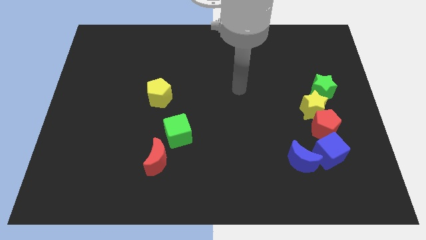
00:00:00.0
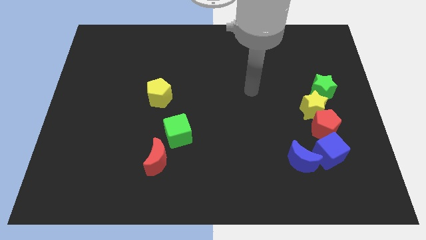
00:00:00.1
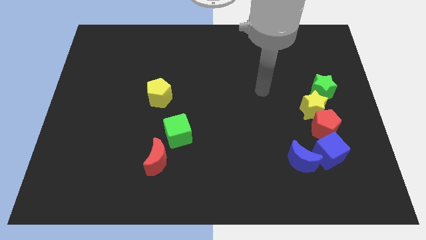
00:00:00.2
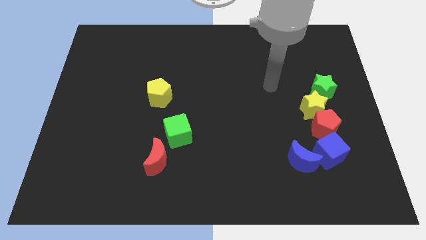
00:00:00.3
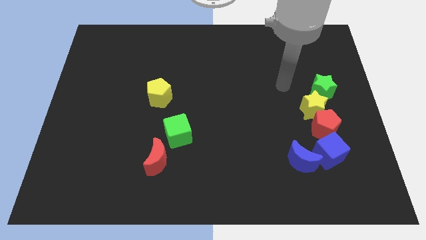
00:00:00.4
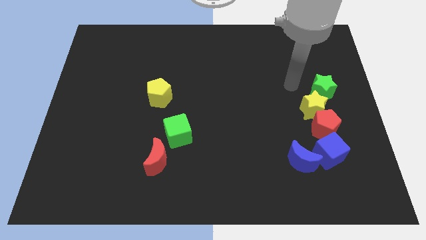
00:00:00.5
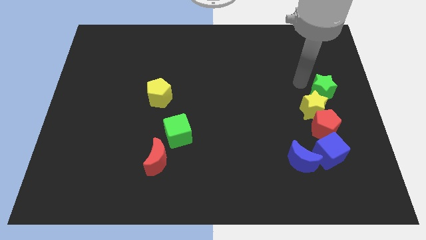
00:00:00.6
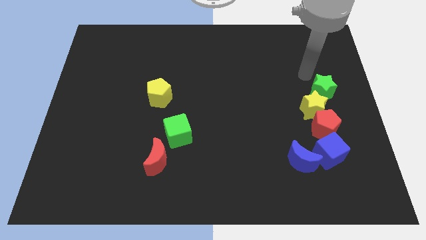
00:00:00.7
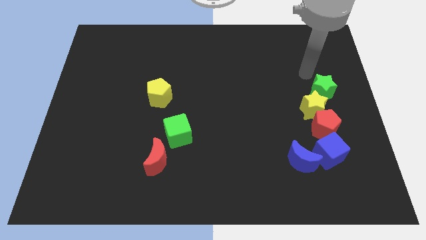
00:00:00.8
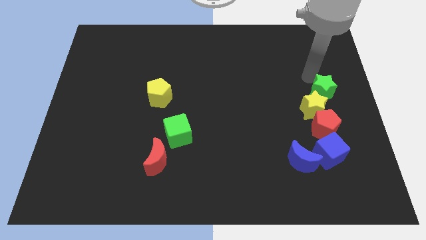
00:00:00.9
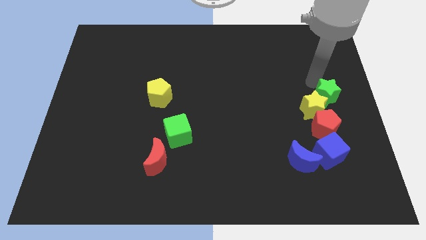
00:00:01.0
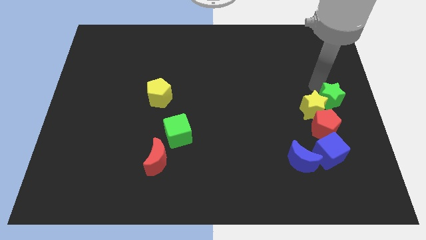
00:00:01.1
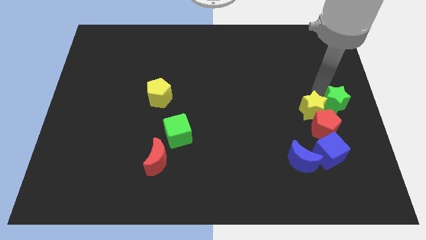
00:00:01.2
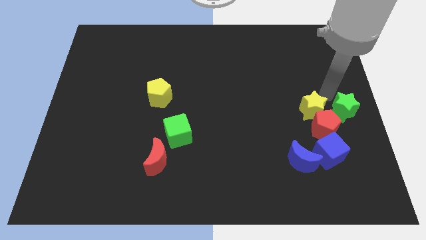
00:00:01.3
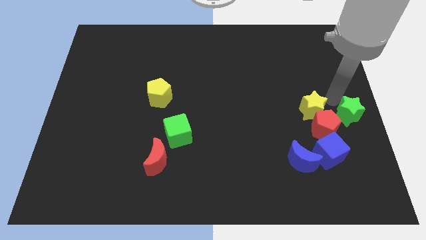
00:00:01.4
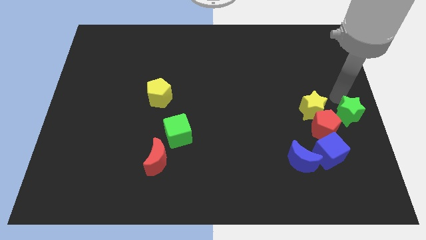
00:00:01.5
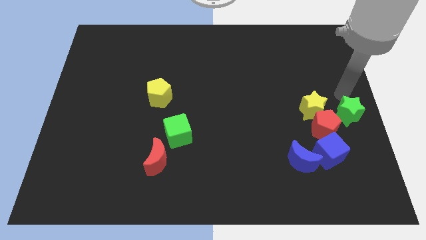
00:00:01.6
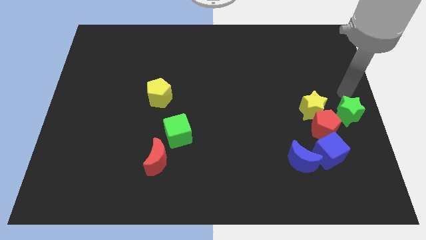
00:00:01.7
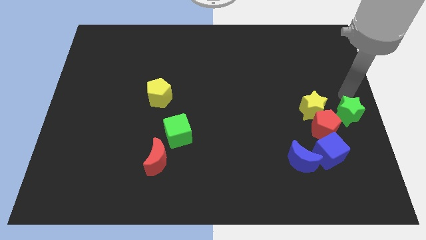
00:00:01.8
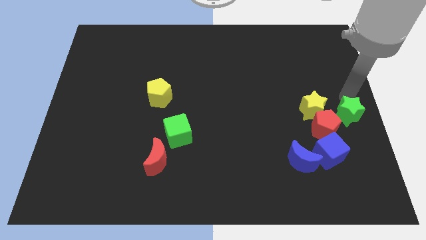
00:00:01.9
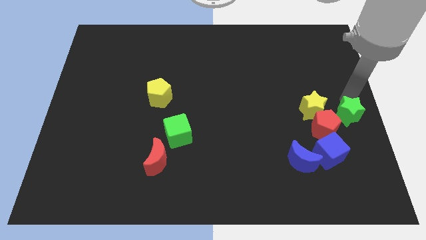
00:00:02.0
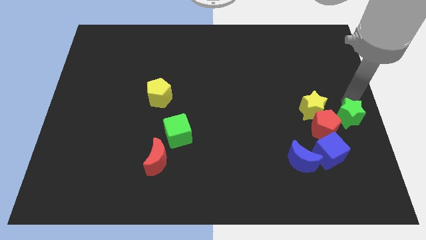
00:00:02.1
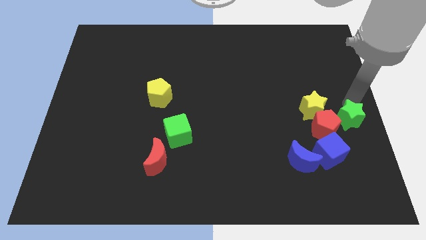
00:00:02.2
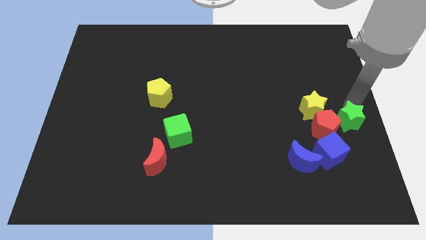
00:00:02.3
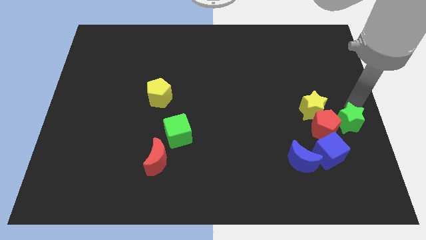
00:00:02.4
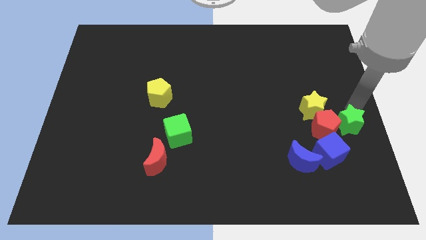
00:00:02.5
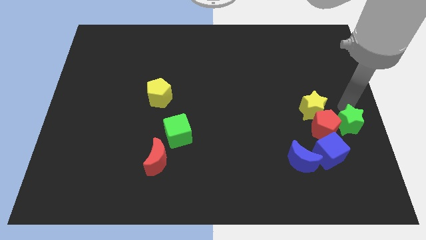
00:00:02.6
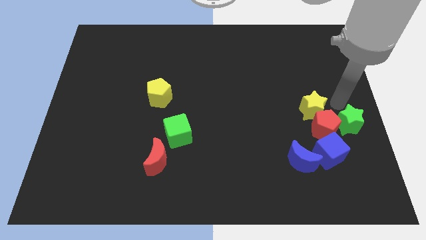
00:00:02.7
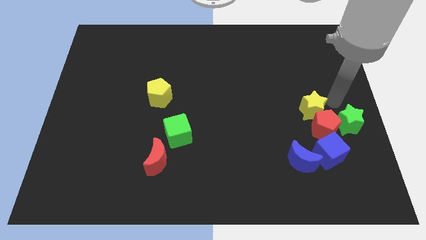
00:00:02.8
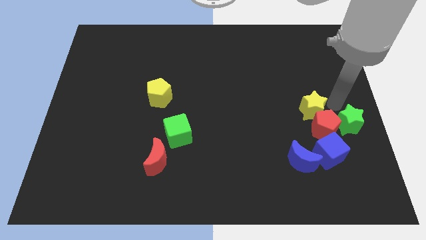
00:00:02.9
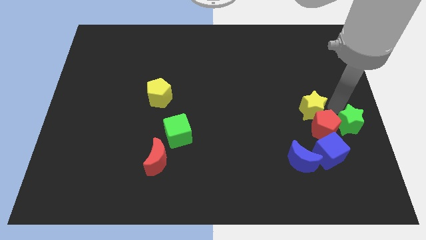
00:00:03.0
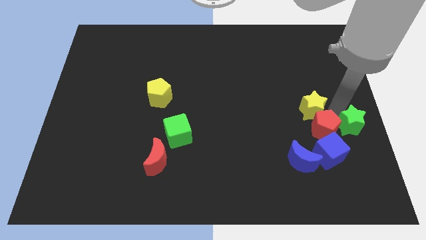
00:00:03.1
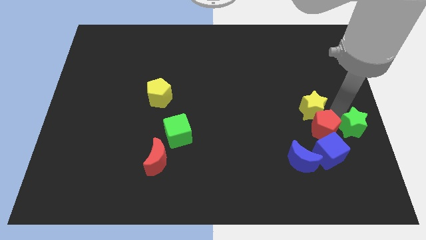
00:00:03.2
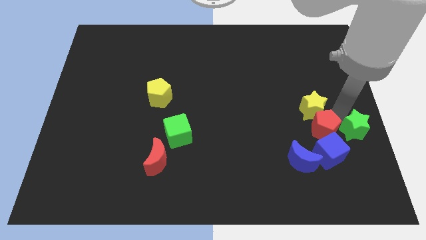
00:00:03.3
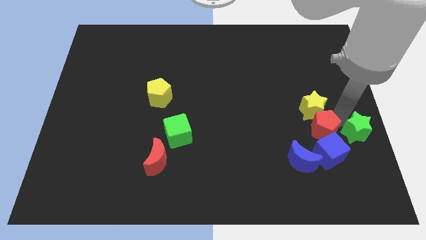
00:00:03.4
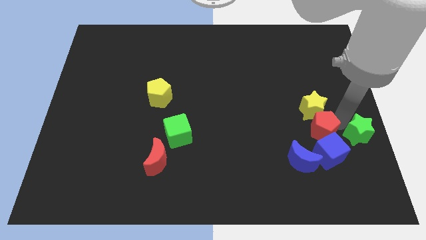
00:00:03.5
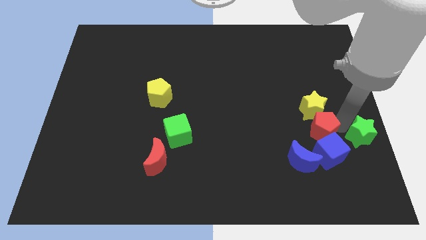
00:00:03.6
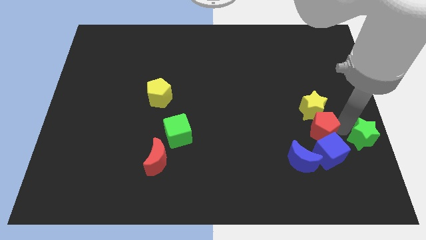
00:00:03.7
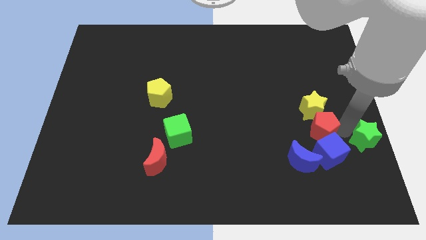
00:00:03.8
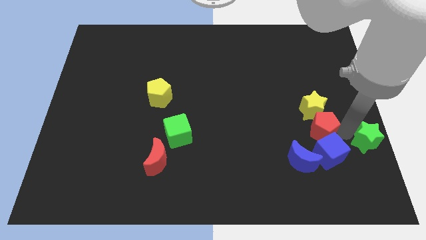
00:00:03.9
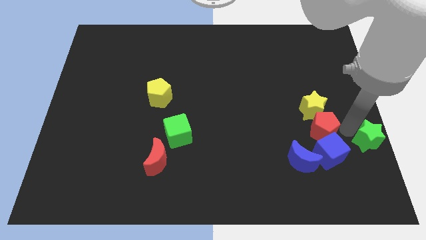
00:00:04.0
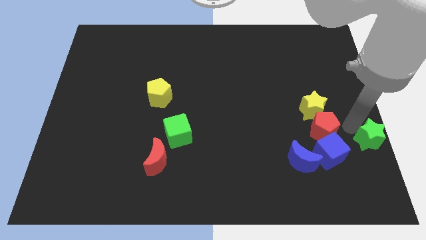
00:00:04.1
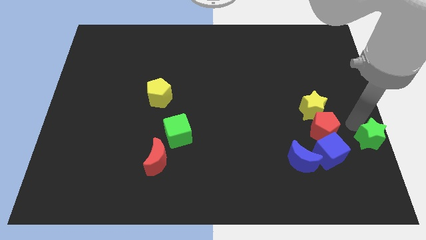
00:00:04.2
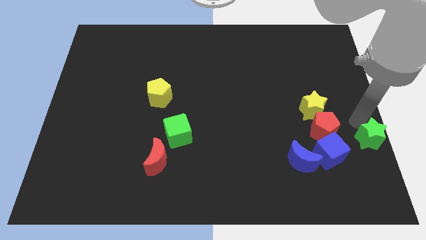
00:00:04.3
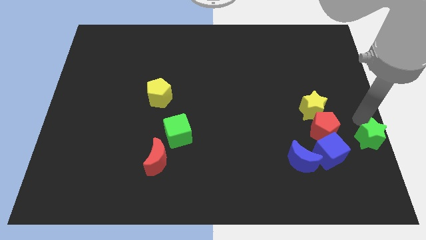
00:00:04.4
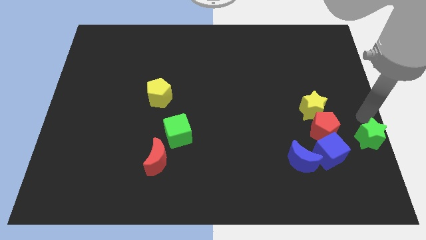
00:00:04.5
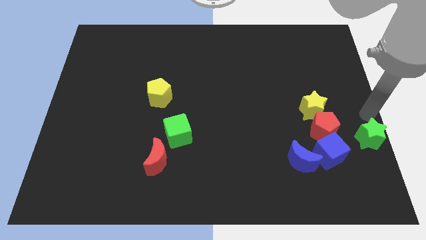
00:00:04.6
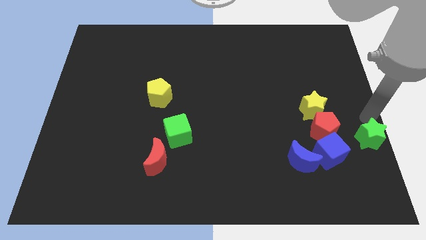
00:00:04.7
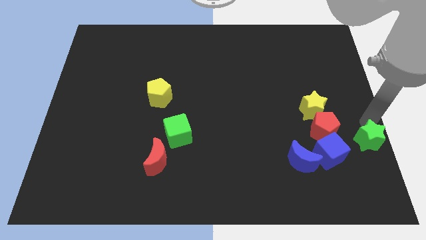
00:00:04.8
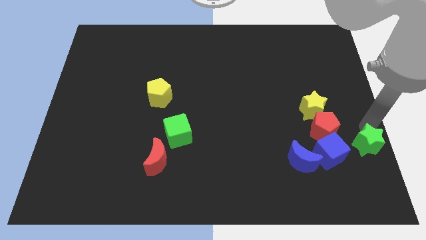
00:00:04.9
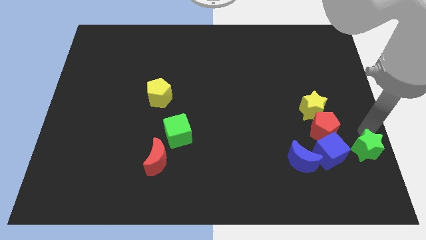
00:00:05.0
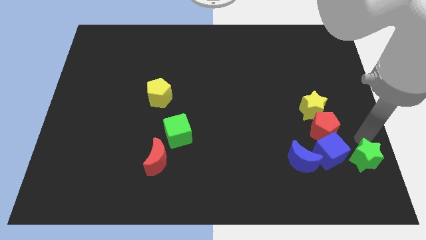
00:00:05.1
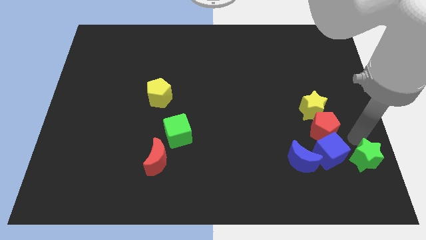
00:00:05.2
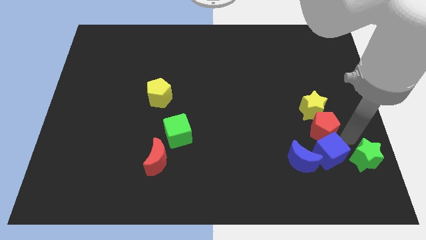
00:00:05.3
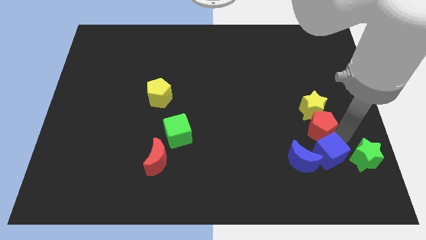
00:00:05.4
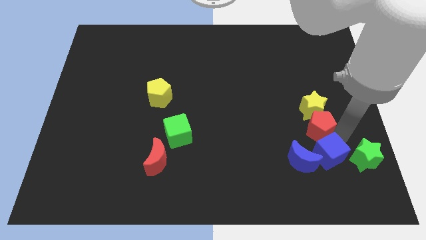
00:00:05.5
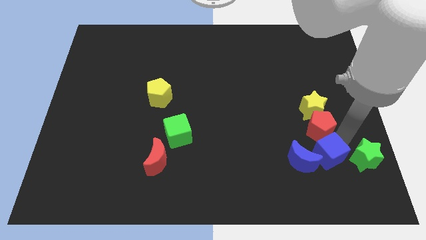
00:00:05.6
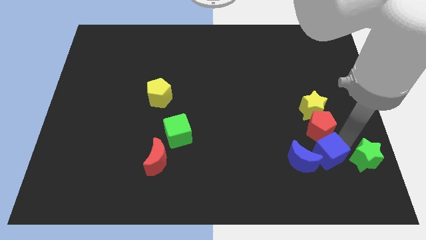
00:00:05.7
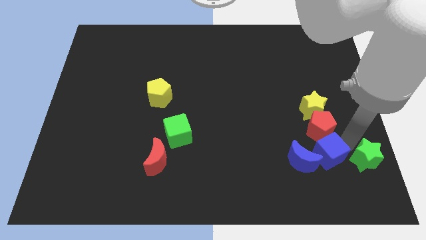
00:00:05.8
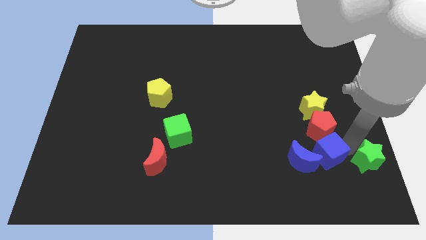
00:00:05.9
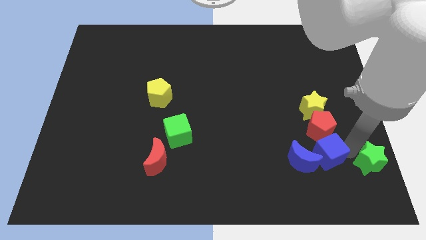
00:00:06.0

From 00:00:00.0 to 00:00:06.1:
move the green star to the bottom right
